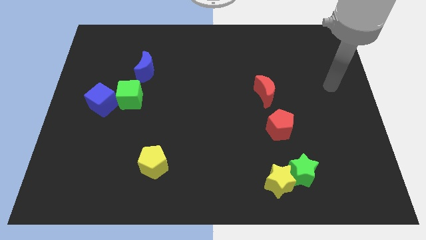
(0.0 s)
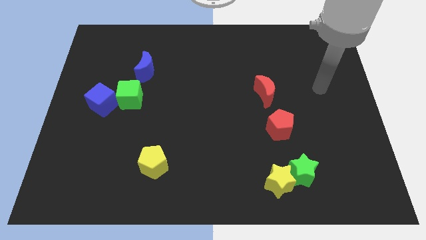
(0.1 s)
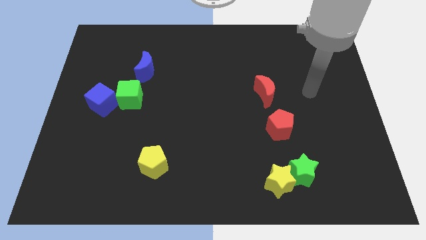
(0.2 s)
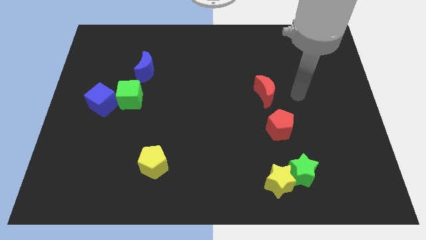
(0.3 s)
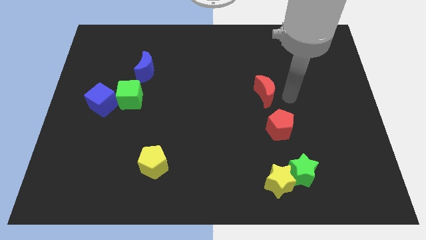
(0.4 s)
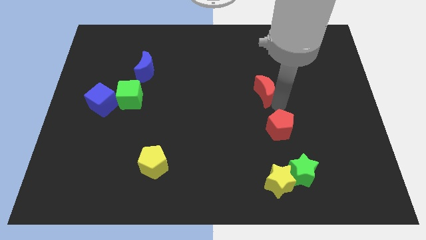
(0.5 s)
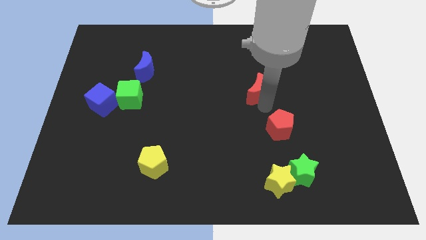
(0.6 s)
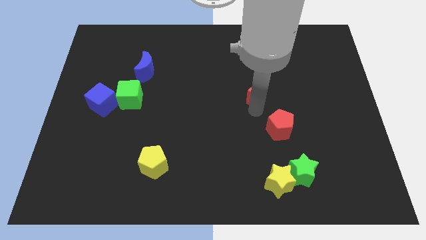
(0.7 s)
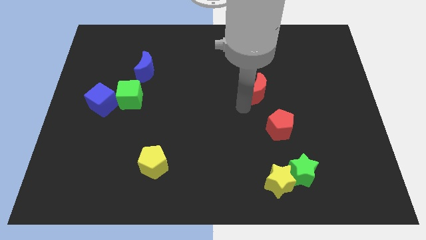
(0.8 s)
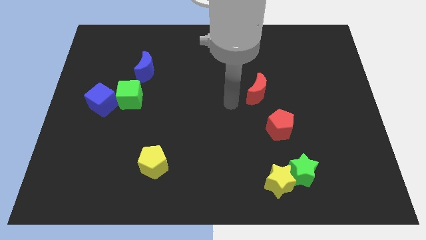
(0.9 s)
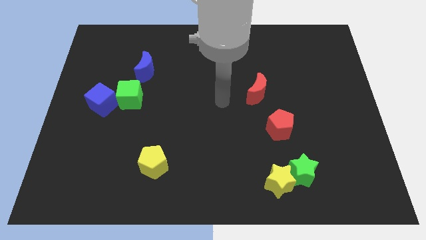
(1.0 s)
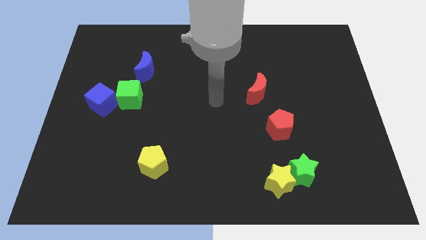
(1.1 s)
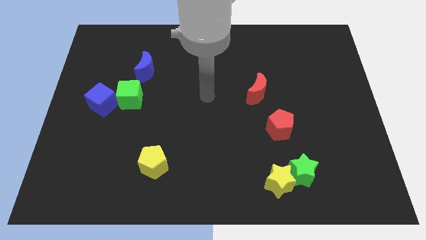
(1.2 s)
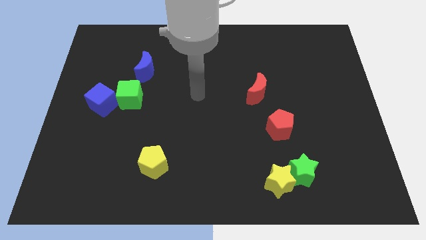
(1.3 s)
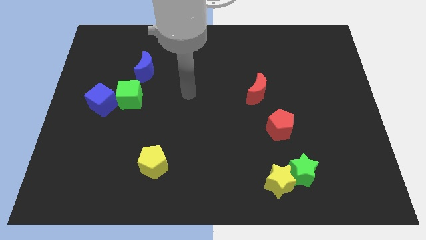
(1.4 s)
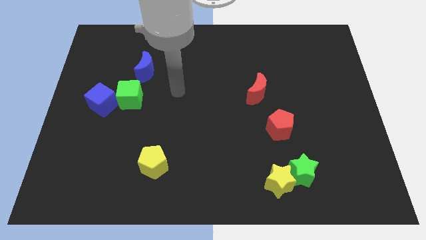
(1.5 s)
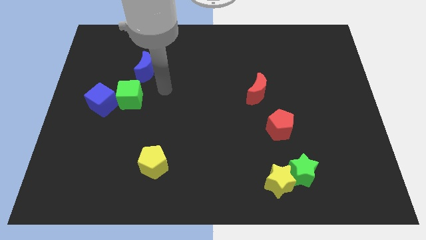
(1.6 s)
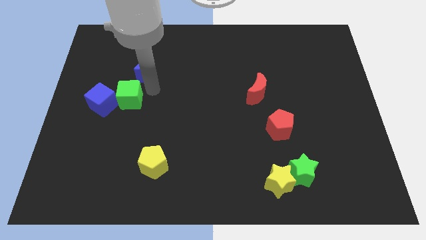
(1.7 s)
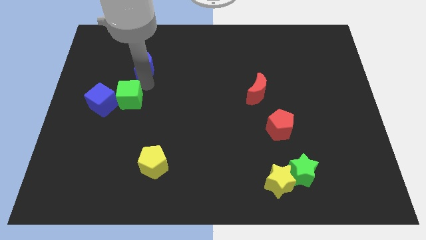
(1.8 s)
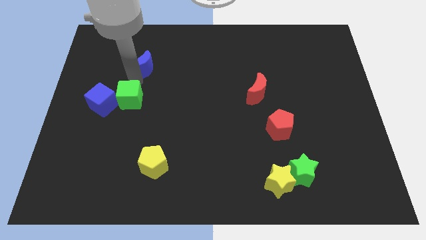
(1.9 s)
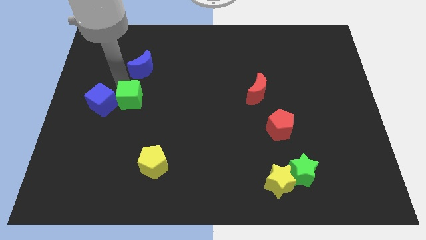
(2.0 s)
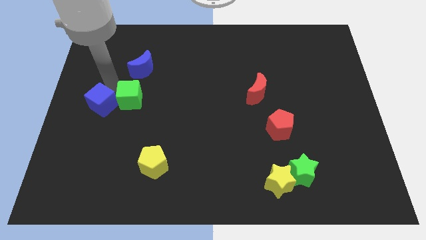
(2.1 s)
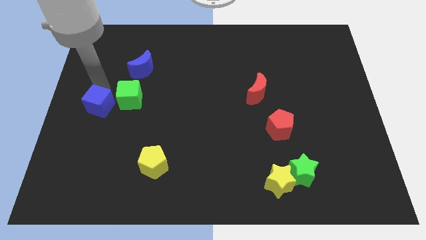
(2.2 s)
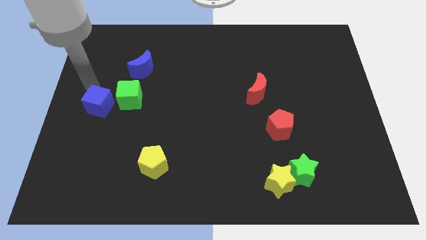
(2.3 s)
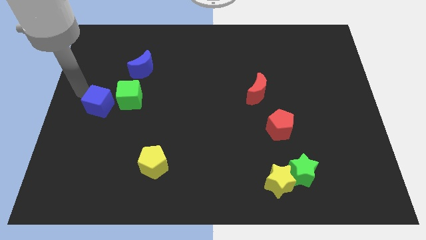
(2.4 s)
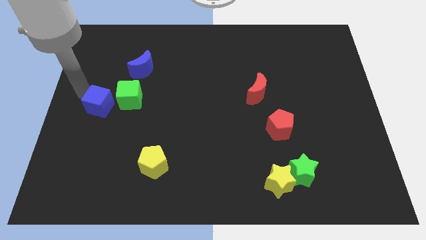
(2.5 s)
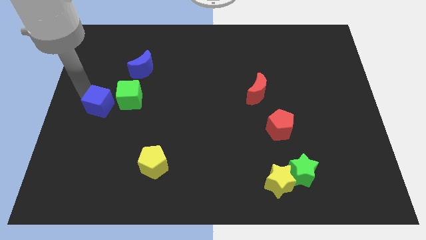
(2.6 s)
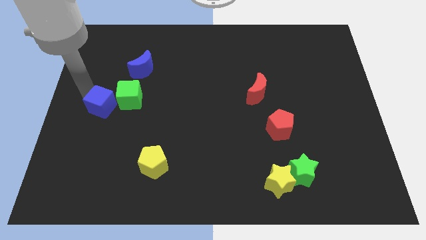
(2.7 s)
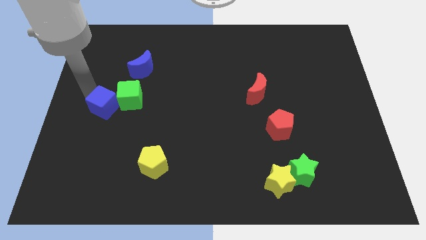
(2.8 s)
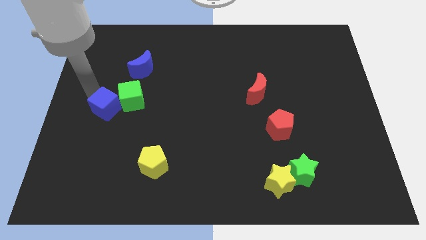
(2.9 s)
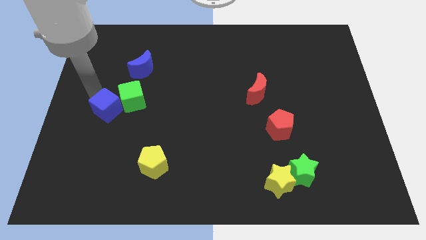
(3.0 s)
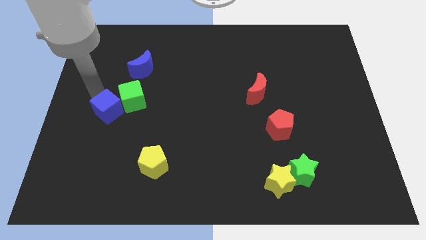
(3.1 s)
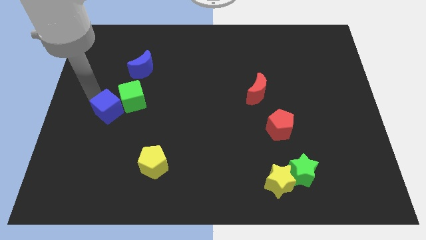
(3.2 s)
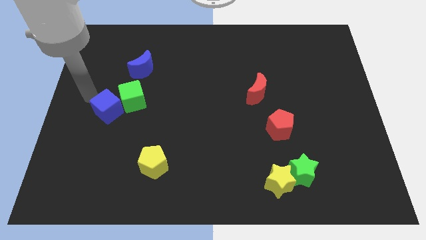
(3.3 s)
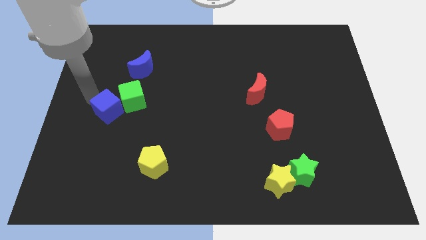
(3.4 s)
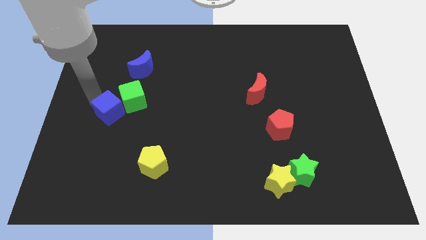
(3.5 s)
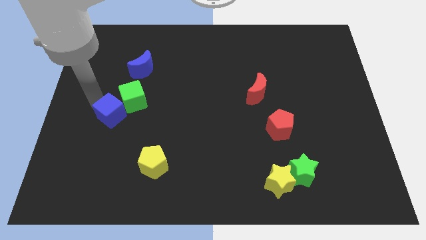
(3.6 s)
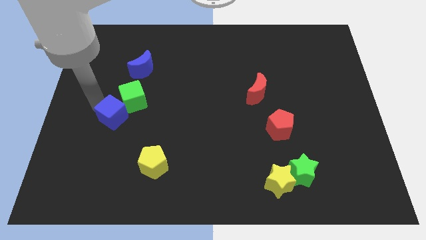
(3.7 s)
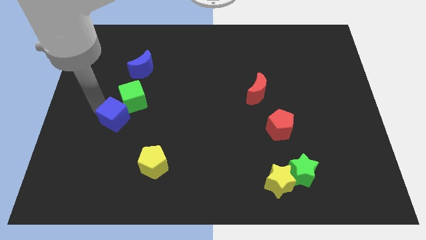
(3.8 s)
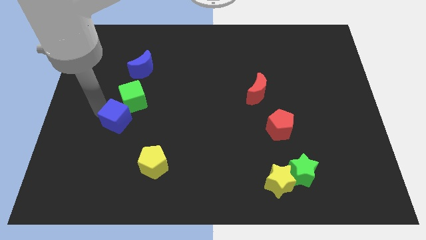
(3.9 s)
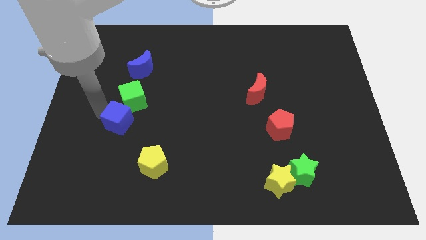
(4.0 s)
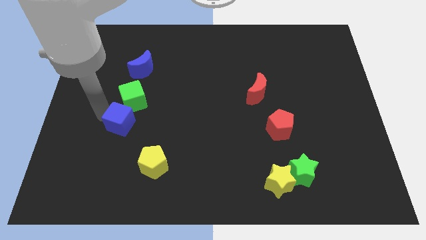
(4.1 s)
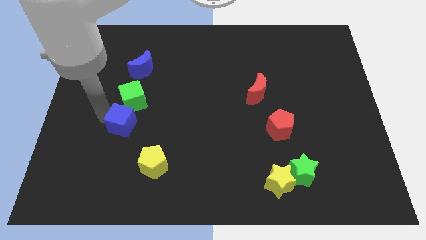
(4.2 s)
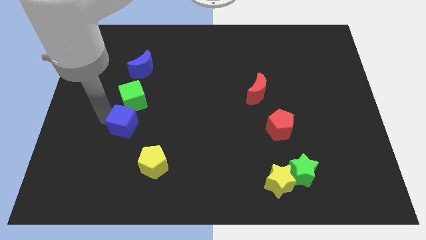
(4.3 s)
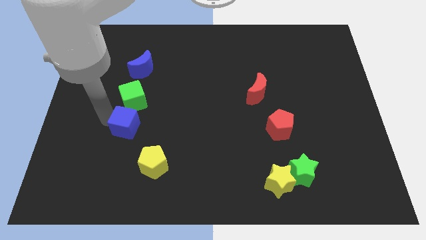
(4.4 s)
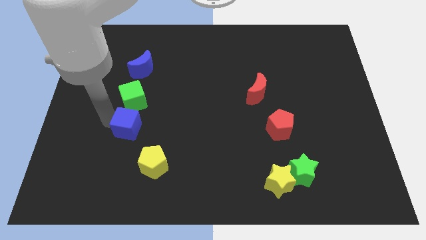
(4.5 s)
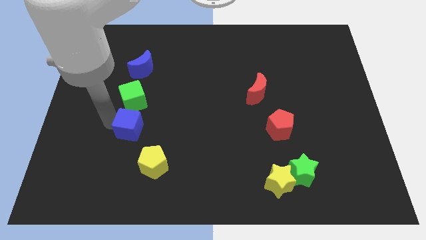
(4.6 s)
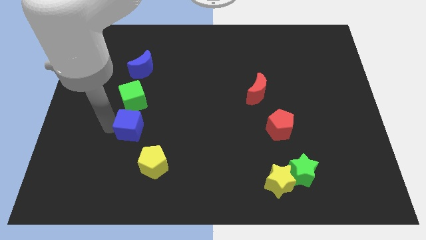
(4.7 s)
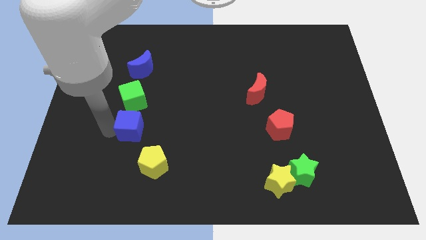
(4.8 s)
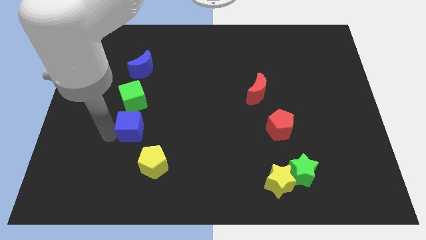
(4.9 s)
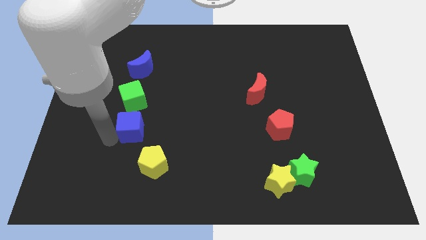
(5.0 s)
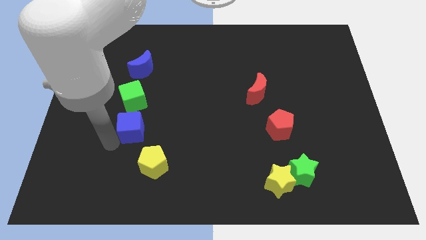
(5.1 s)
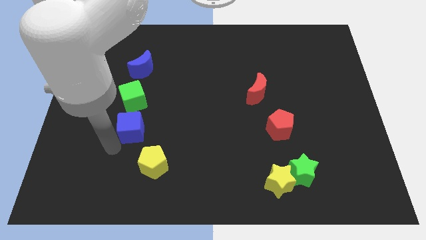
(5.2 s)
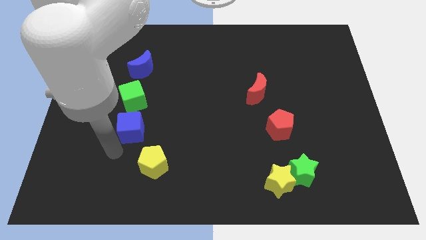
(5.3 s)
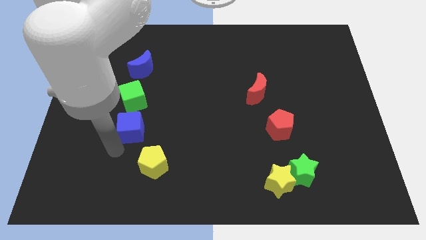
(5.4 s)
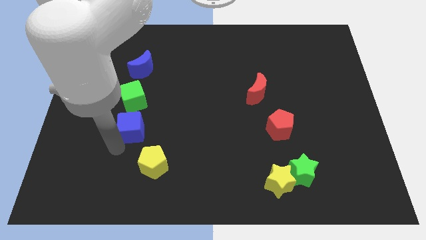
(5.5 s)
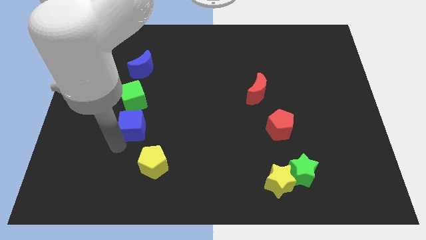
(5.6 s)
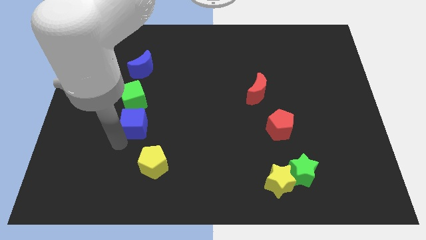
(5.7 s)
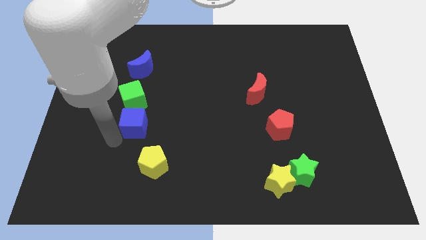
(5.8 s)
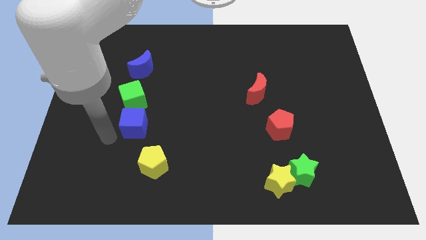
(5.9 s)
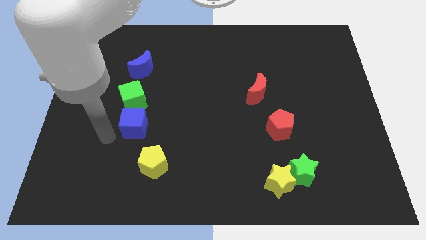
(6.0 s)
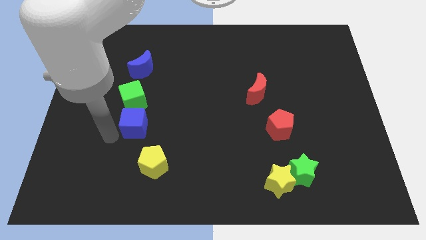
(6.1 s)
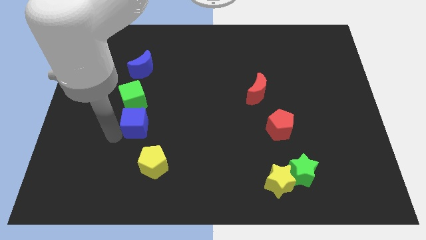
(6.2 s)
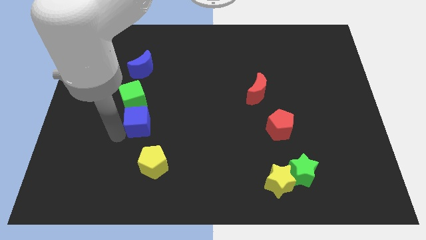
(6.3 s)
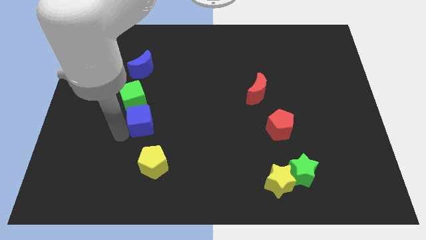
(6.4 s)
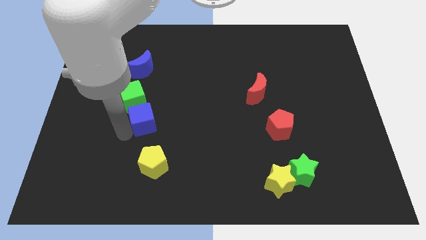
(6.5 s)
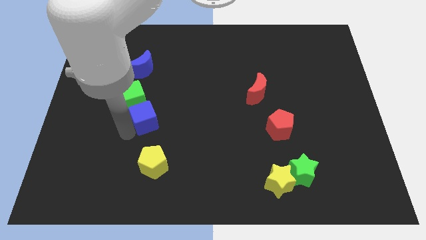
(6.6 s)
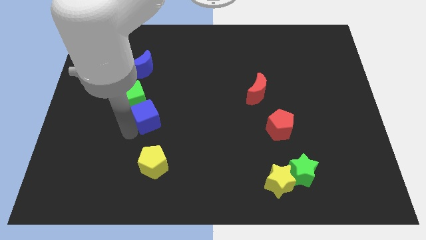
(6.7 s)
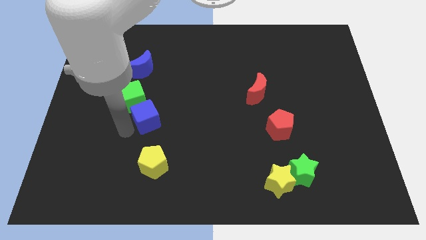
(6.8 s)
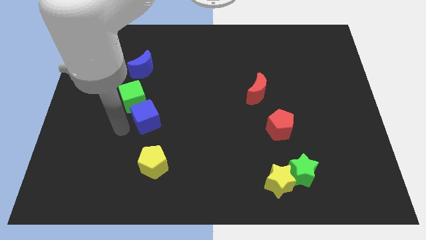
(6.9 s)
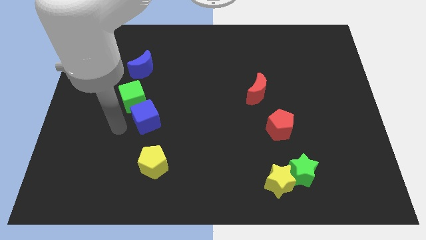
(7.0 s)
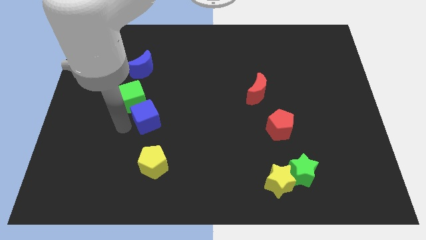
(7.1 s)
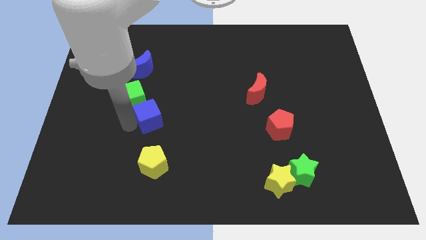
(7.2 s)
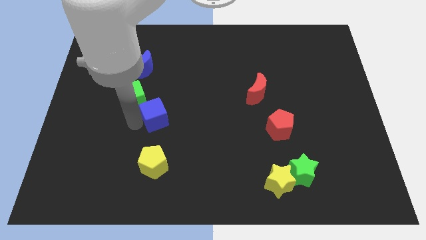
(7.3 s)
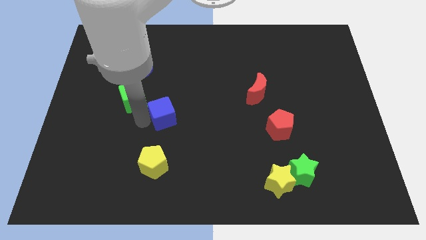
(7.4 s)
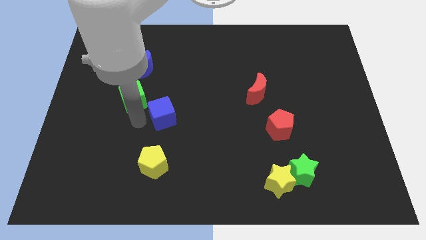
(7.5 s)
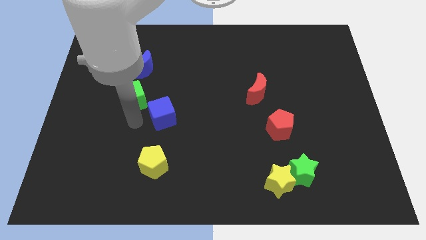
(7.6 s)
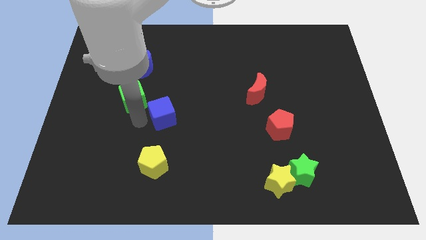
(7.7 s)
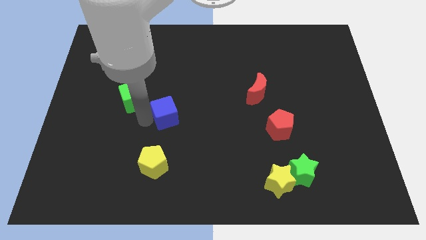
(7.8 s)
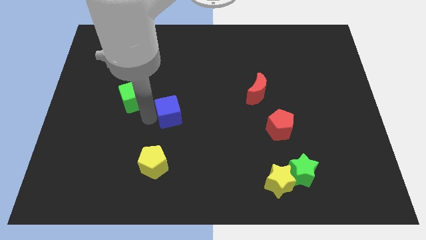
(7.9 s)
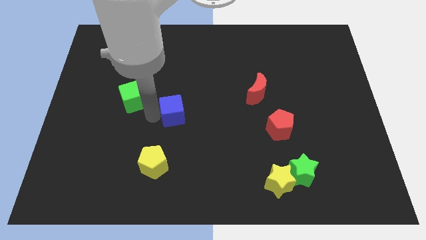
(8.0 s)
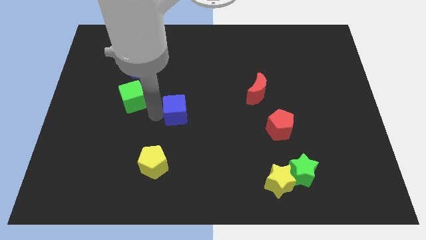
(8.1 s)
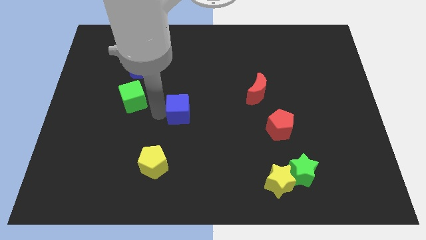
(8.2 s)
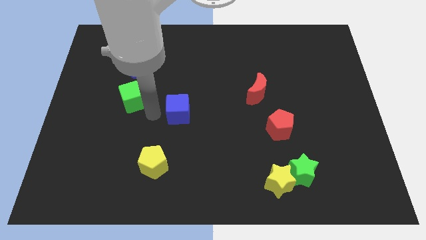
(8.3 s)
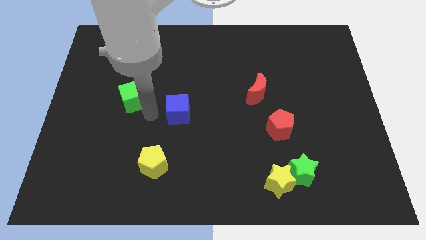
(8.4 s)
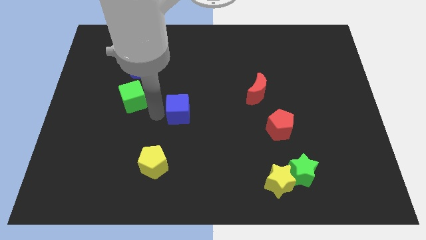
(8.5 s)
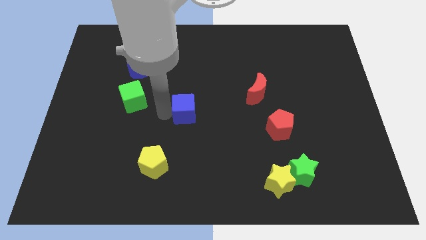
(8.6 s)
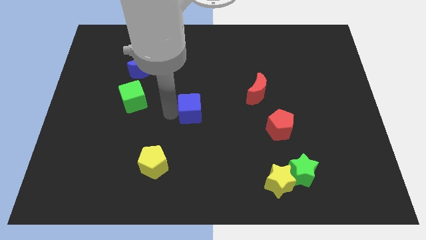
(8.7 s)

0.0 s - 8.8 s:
push the blue cube right
